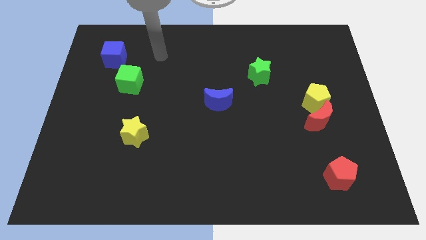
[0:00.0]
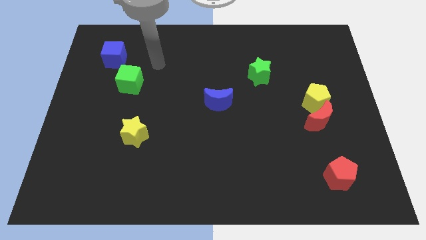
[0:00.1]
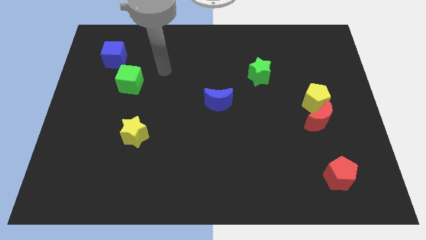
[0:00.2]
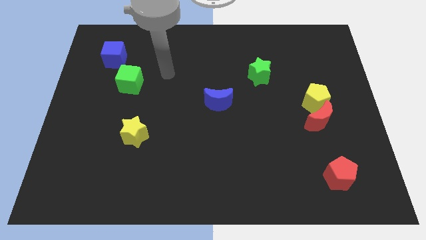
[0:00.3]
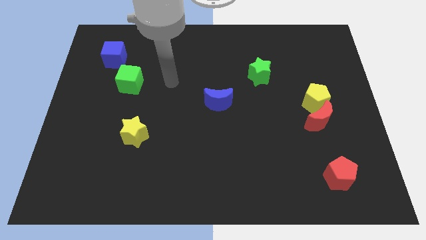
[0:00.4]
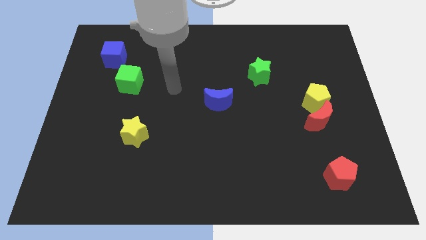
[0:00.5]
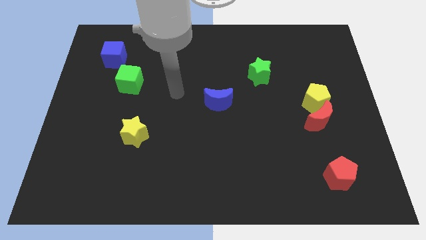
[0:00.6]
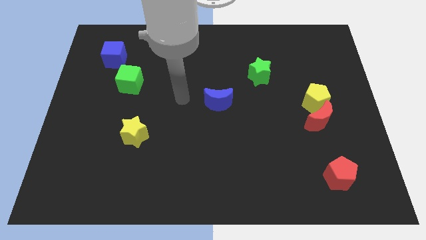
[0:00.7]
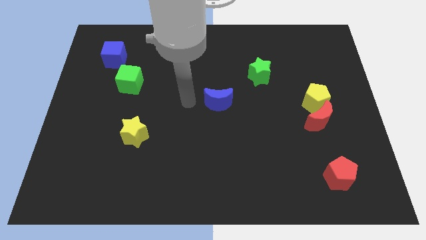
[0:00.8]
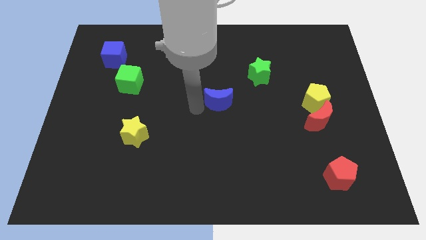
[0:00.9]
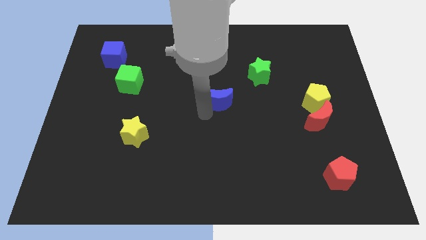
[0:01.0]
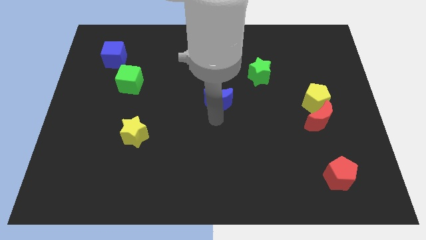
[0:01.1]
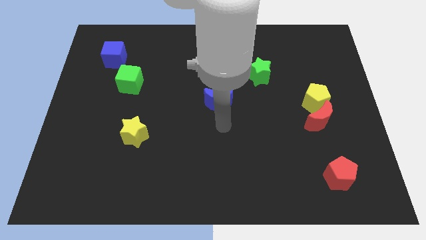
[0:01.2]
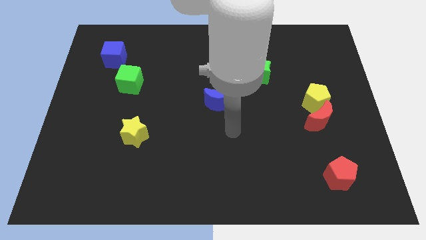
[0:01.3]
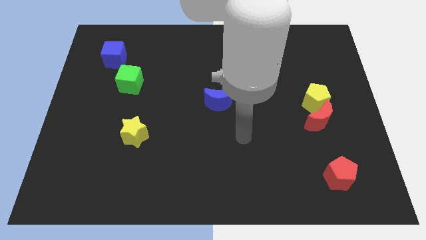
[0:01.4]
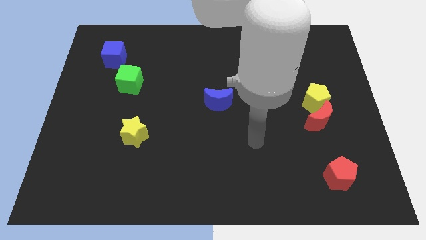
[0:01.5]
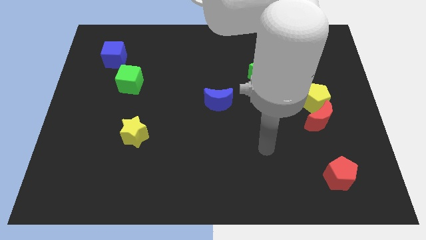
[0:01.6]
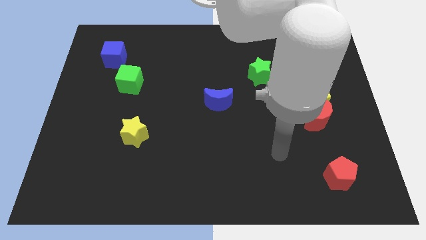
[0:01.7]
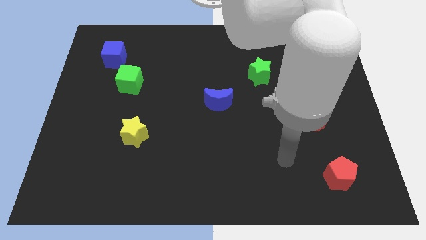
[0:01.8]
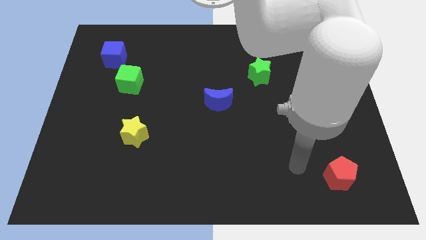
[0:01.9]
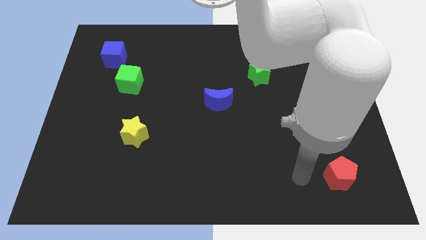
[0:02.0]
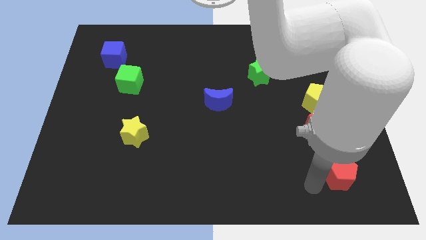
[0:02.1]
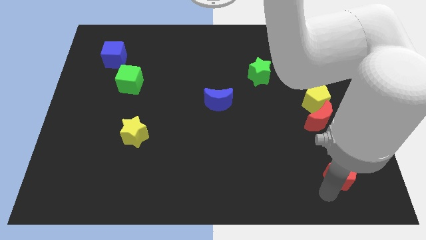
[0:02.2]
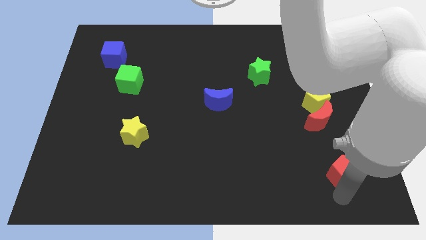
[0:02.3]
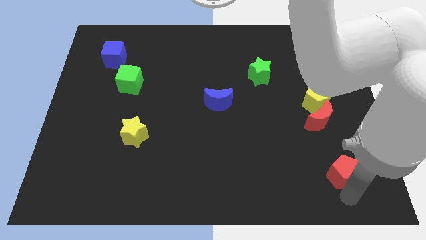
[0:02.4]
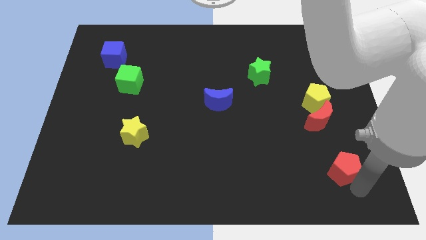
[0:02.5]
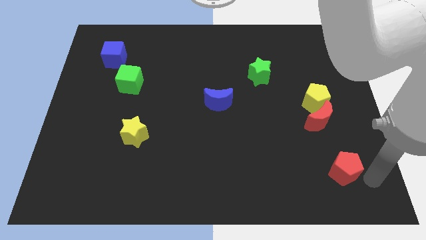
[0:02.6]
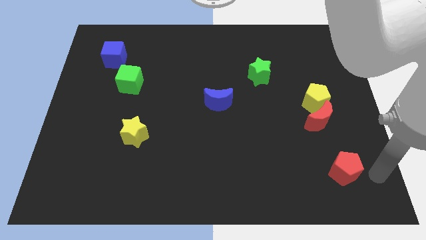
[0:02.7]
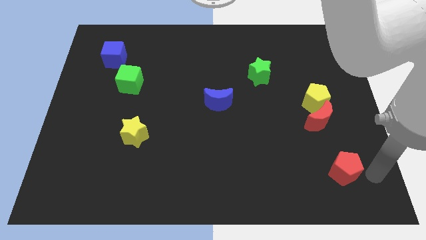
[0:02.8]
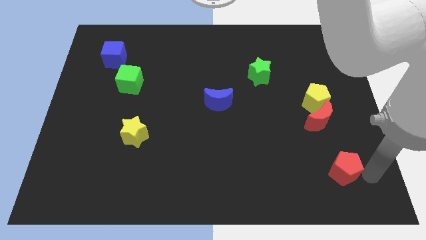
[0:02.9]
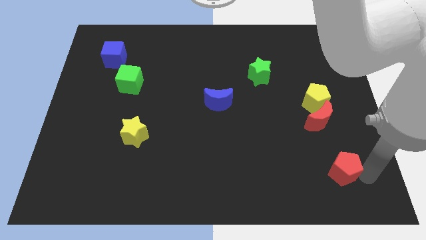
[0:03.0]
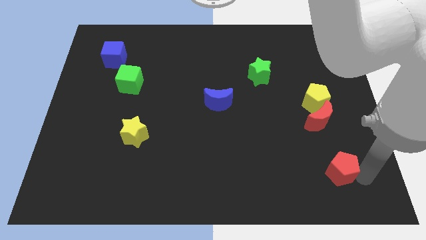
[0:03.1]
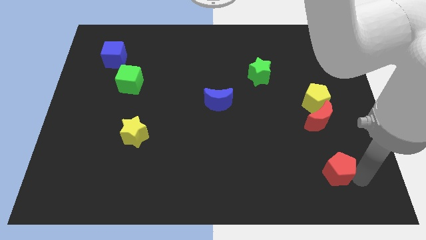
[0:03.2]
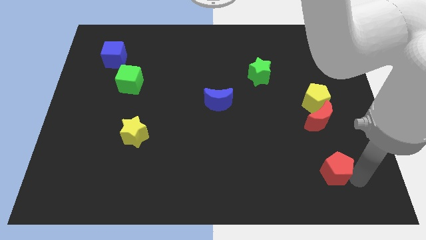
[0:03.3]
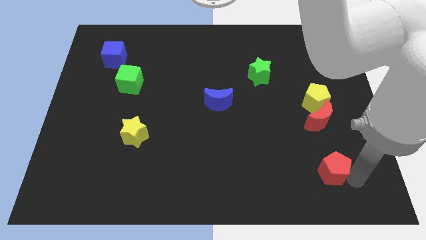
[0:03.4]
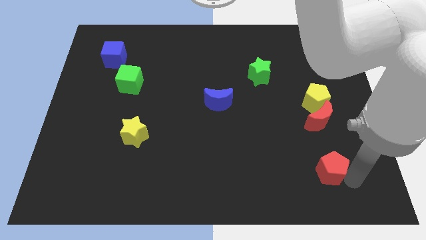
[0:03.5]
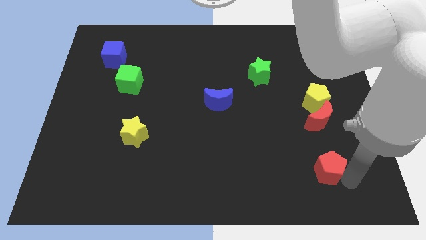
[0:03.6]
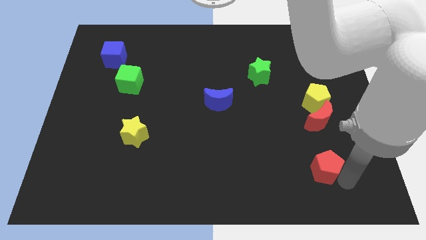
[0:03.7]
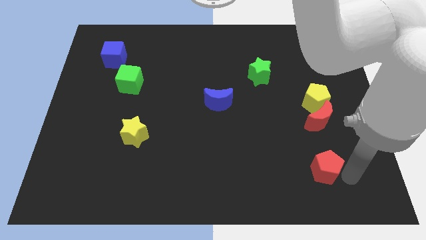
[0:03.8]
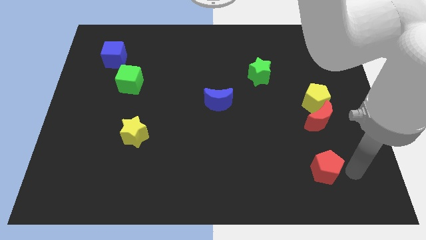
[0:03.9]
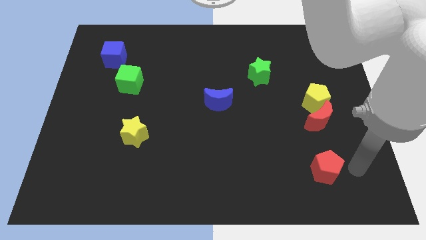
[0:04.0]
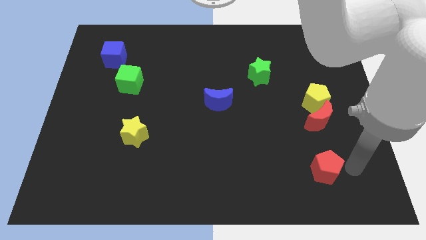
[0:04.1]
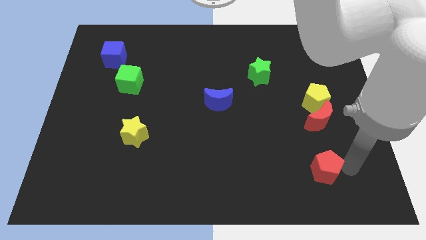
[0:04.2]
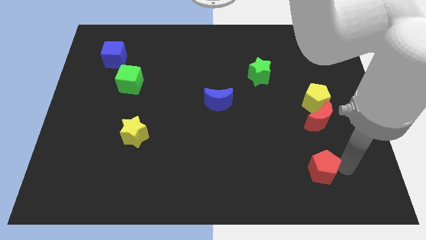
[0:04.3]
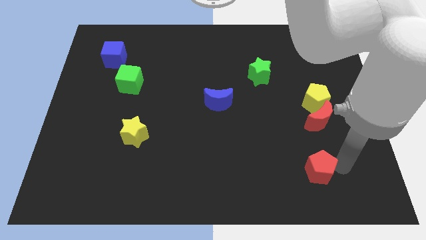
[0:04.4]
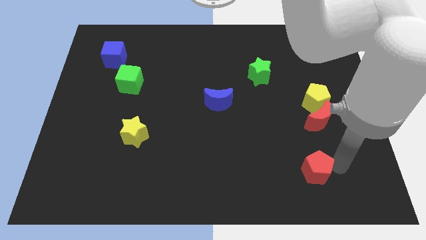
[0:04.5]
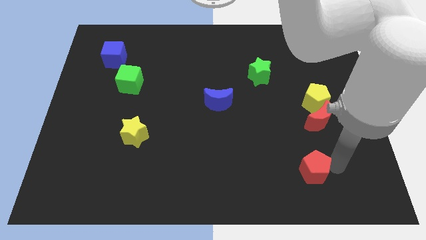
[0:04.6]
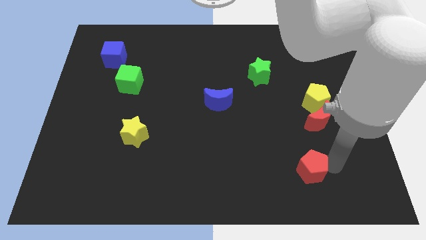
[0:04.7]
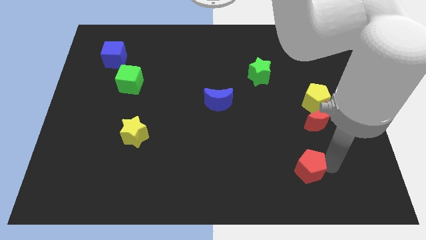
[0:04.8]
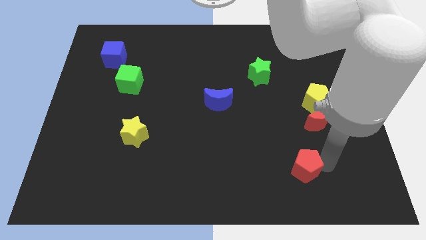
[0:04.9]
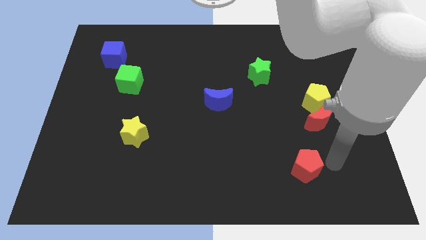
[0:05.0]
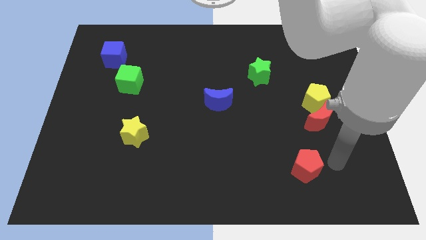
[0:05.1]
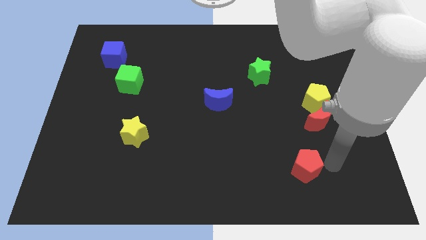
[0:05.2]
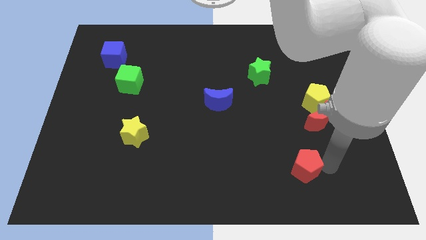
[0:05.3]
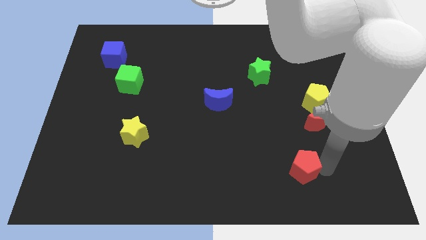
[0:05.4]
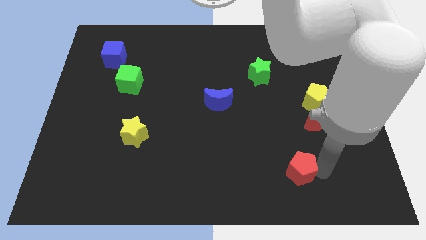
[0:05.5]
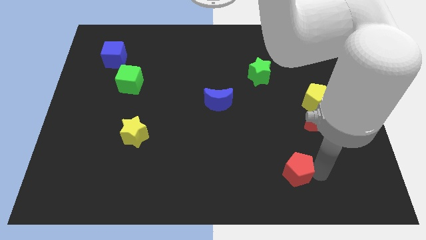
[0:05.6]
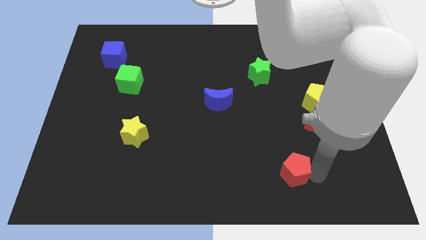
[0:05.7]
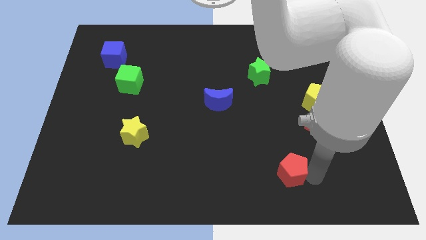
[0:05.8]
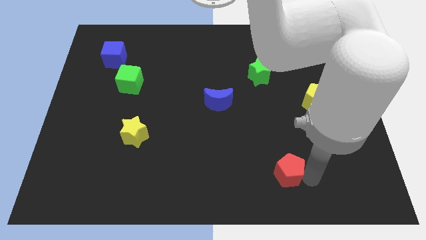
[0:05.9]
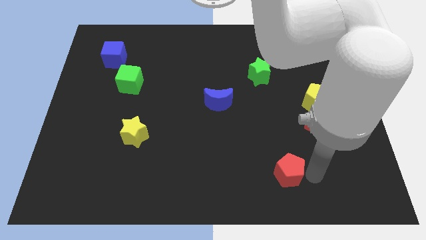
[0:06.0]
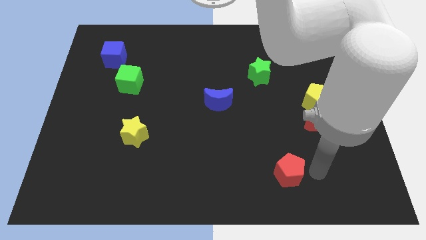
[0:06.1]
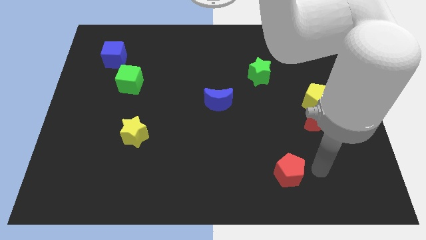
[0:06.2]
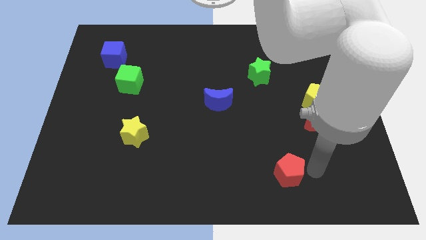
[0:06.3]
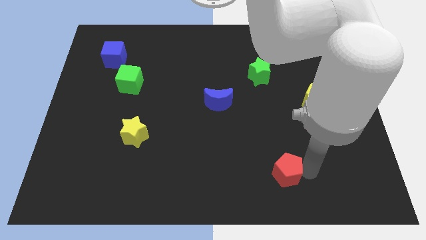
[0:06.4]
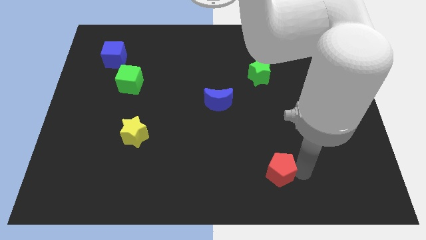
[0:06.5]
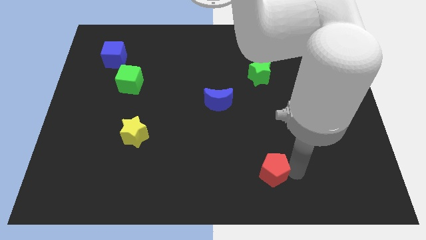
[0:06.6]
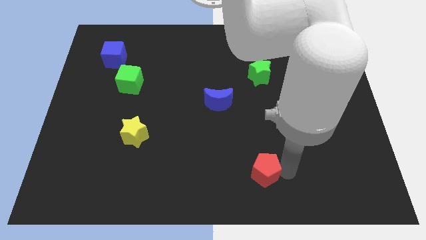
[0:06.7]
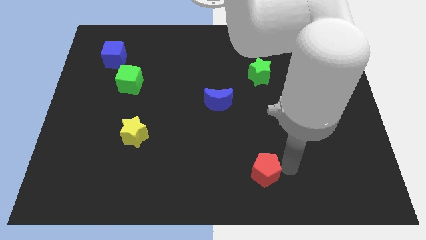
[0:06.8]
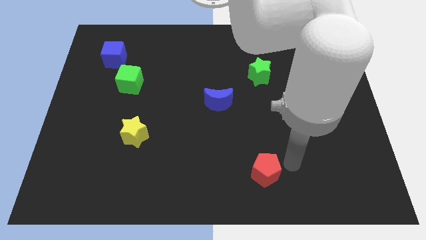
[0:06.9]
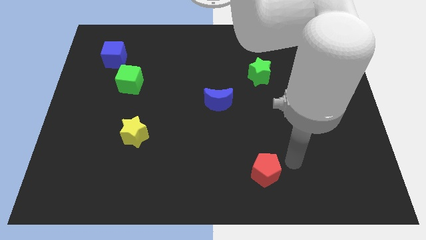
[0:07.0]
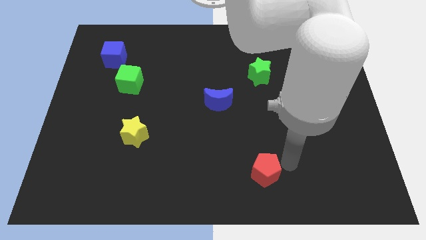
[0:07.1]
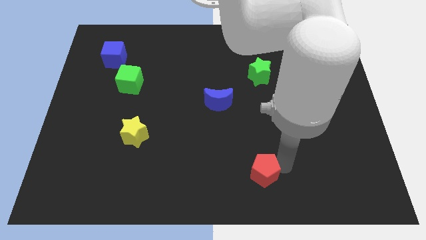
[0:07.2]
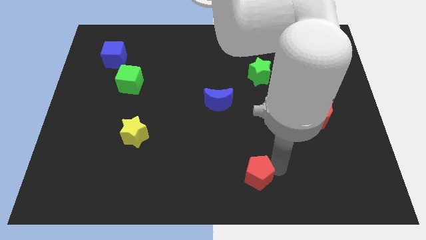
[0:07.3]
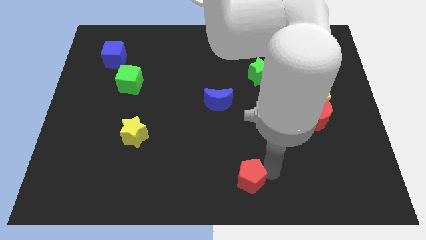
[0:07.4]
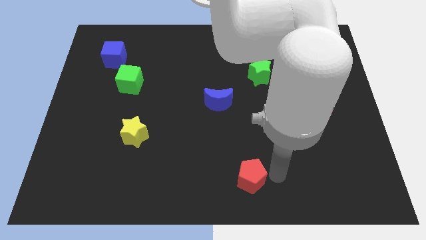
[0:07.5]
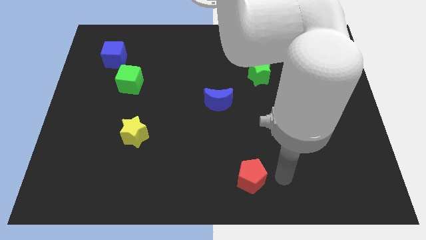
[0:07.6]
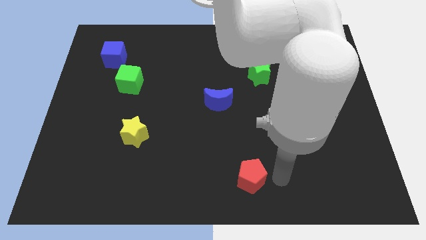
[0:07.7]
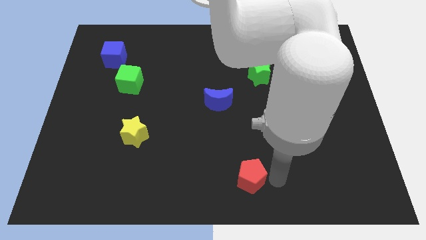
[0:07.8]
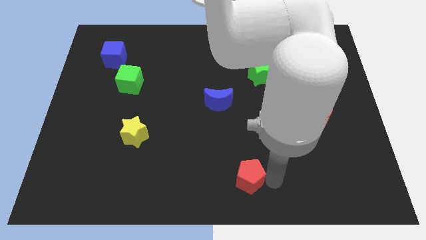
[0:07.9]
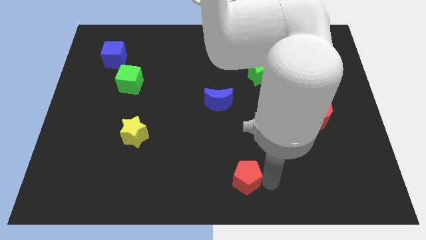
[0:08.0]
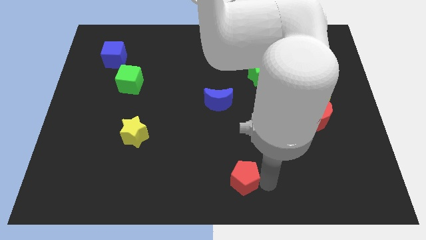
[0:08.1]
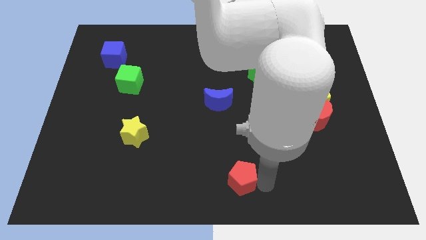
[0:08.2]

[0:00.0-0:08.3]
push the red pentagon to the left
